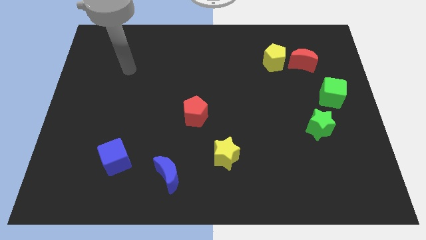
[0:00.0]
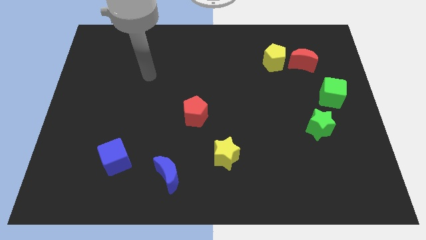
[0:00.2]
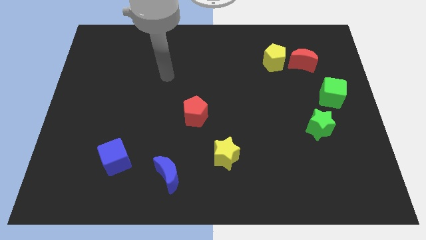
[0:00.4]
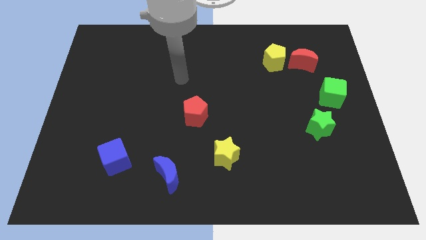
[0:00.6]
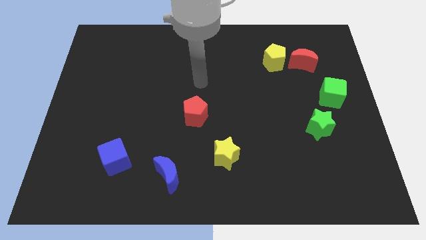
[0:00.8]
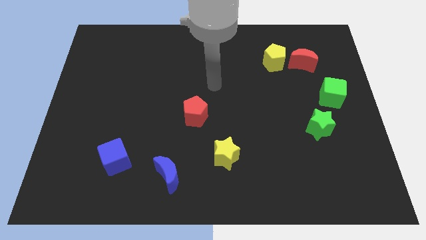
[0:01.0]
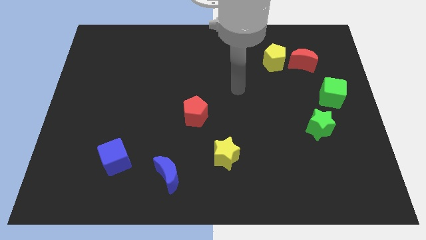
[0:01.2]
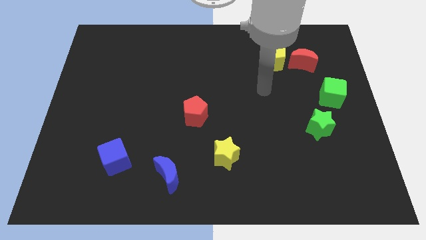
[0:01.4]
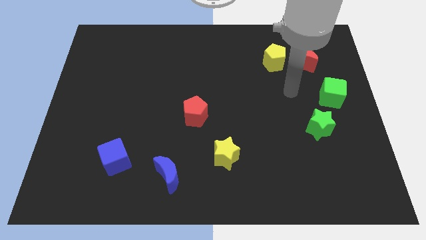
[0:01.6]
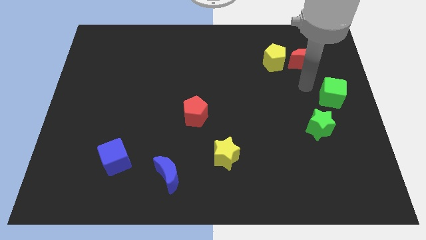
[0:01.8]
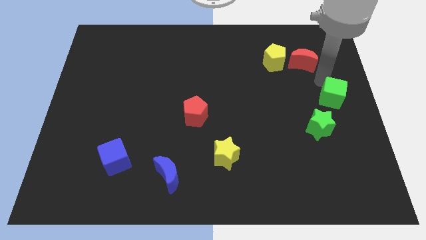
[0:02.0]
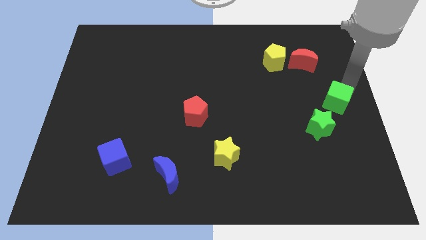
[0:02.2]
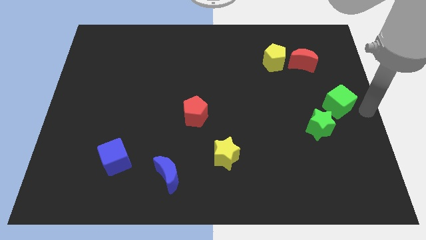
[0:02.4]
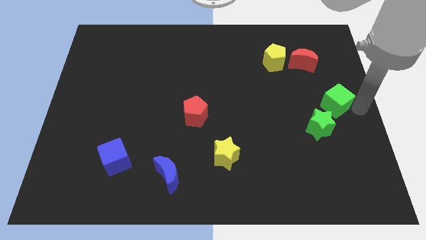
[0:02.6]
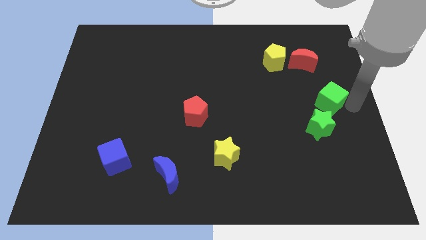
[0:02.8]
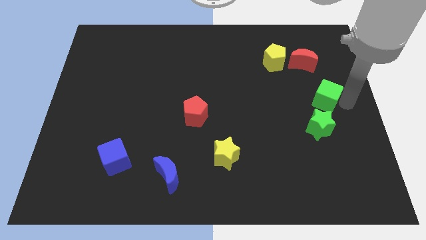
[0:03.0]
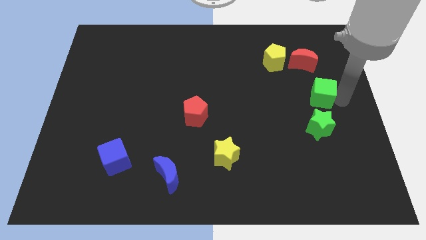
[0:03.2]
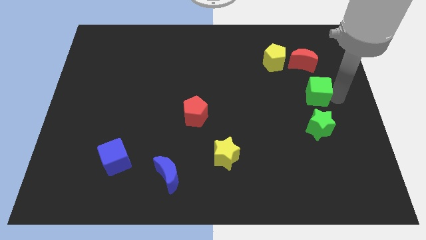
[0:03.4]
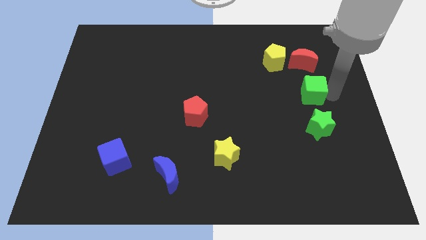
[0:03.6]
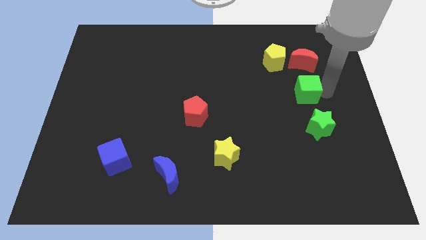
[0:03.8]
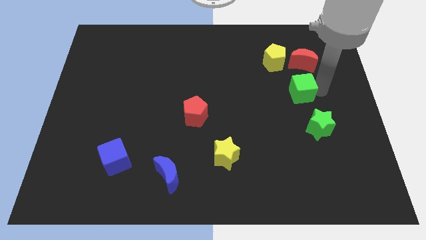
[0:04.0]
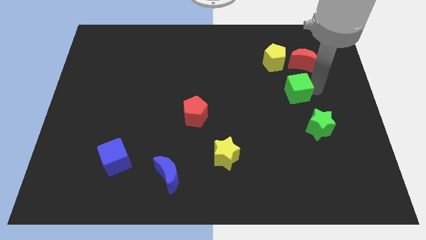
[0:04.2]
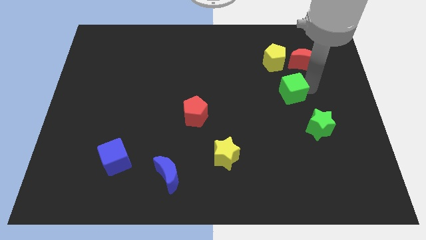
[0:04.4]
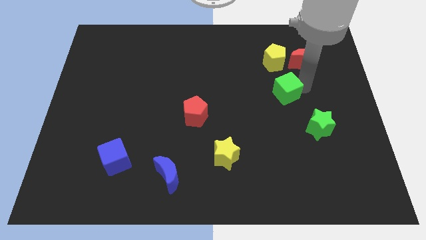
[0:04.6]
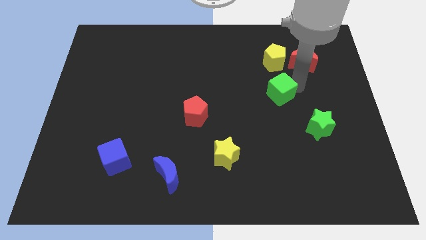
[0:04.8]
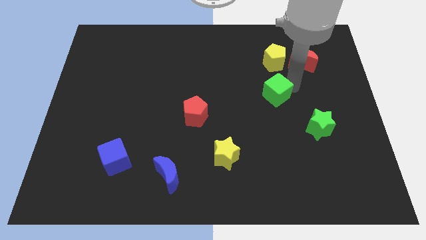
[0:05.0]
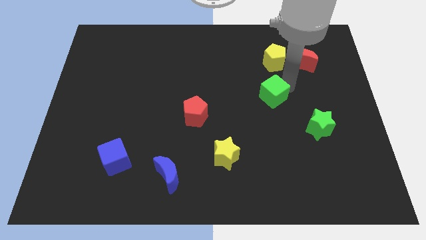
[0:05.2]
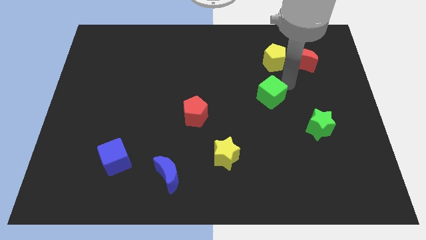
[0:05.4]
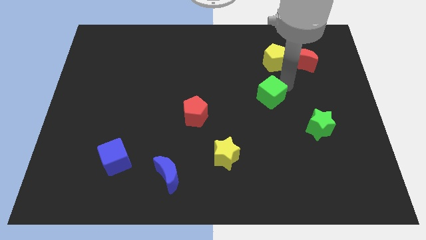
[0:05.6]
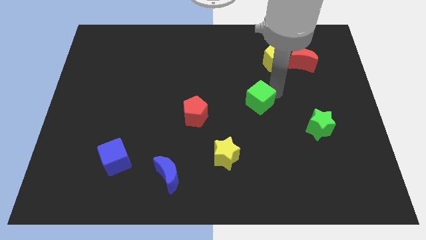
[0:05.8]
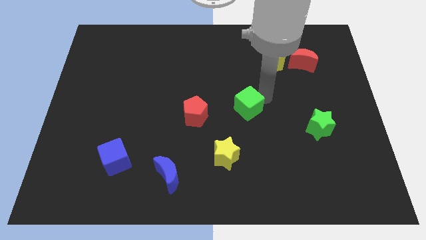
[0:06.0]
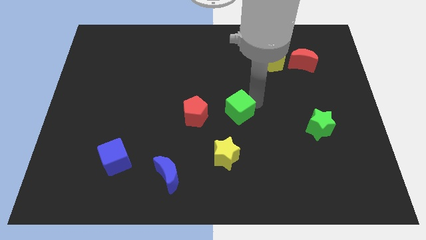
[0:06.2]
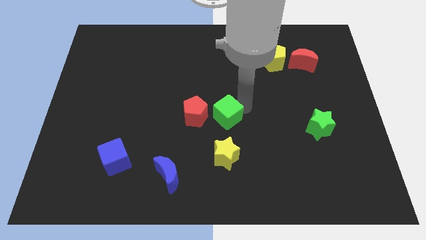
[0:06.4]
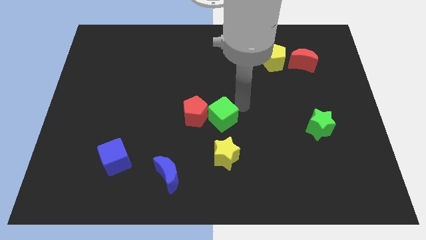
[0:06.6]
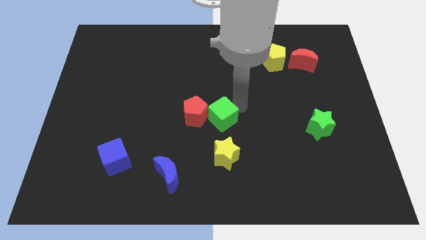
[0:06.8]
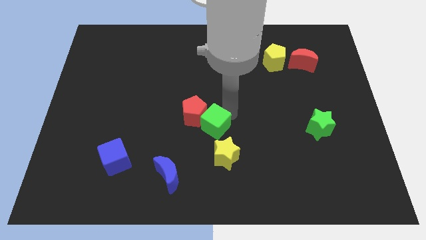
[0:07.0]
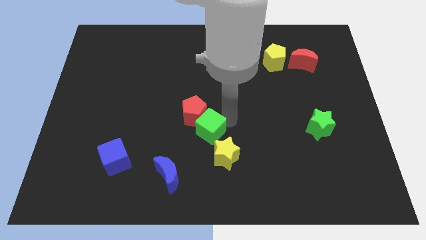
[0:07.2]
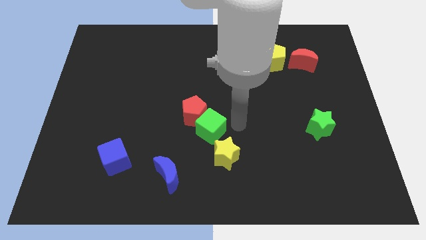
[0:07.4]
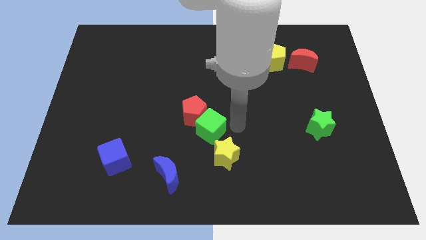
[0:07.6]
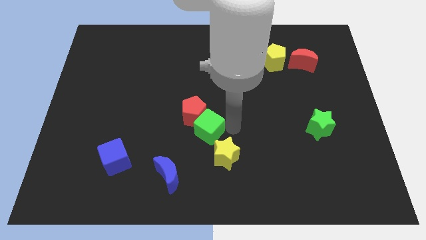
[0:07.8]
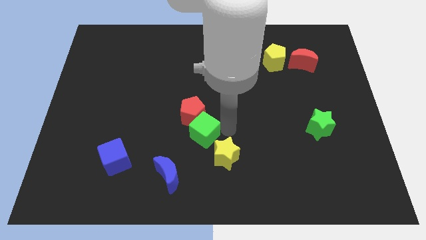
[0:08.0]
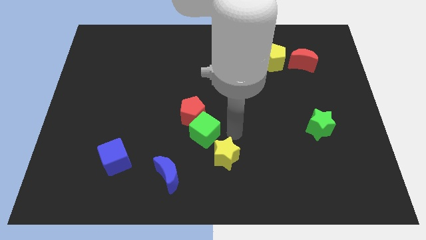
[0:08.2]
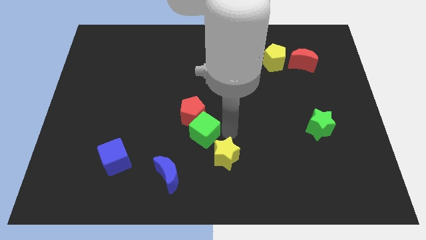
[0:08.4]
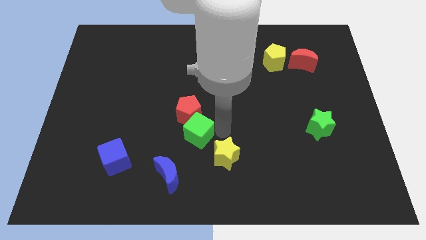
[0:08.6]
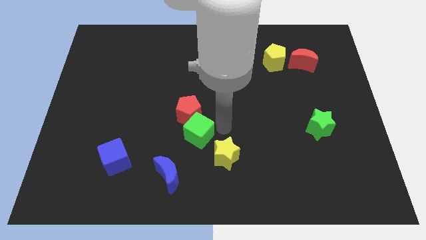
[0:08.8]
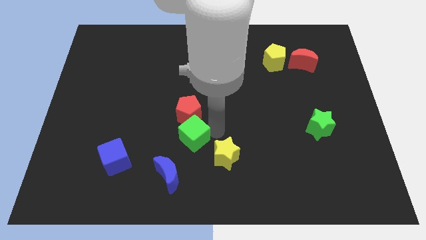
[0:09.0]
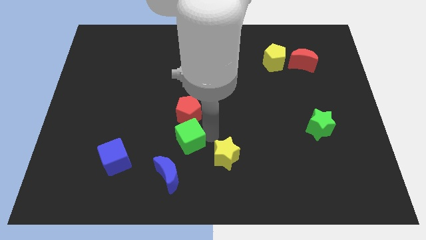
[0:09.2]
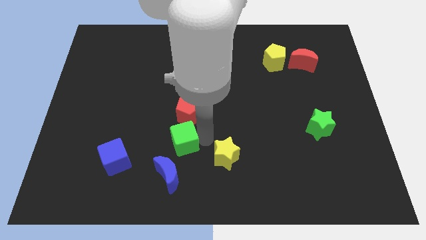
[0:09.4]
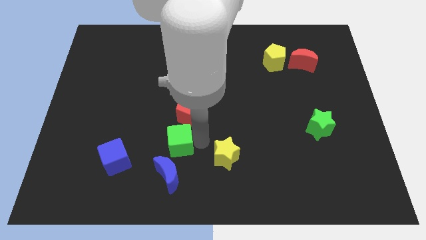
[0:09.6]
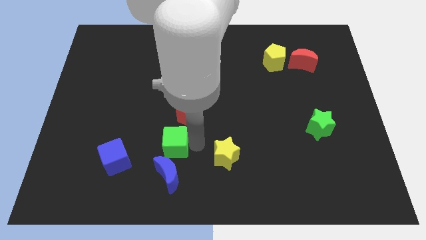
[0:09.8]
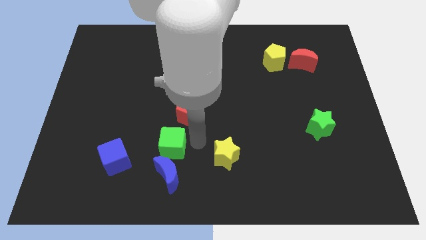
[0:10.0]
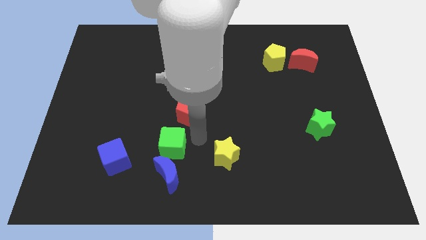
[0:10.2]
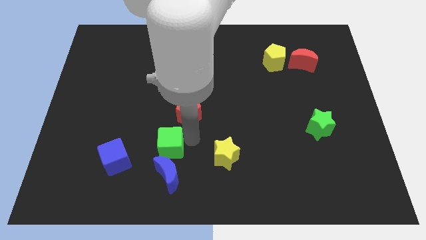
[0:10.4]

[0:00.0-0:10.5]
put the green cube to the top left side of the blue moon

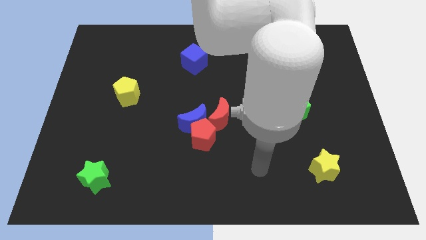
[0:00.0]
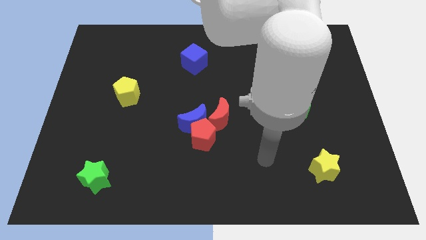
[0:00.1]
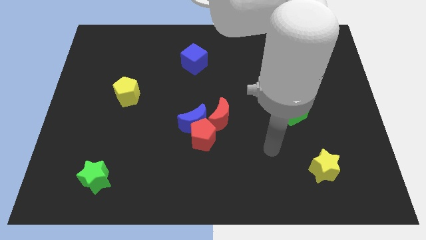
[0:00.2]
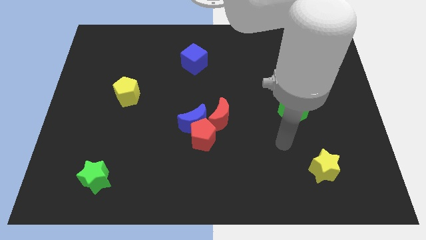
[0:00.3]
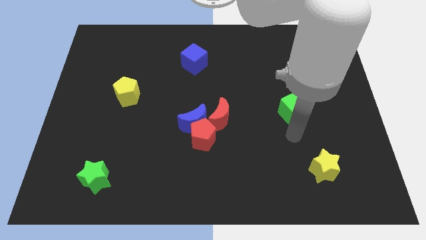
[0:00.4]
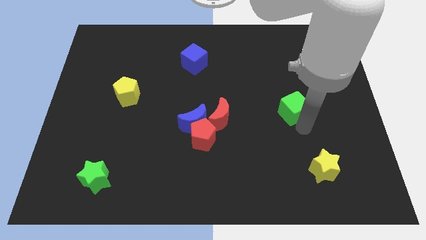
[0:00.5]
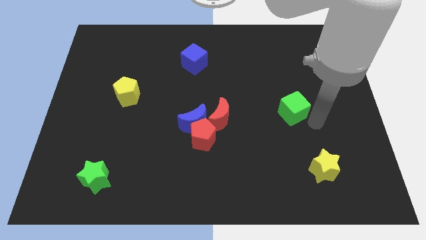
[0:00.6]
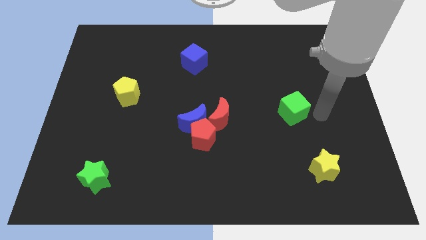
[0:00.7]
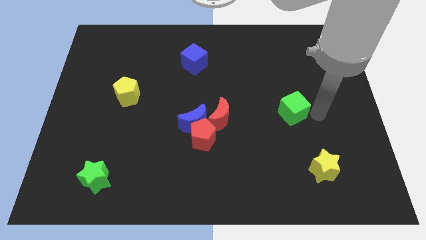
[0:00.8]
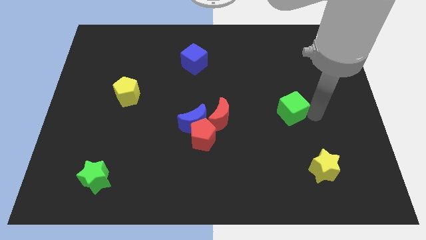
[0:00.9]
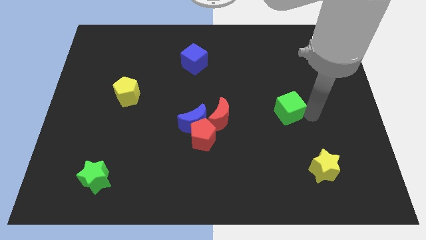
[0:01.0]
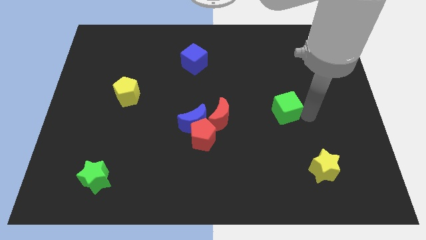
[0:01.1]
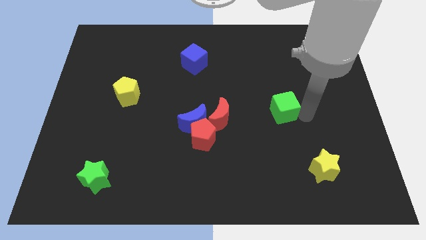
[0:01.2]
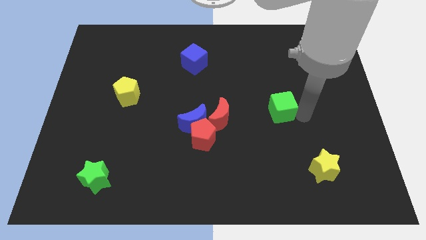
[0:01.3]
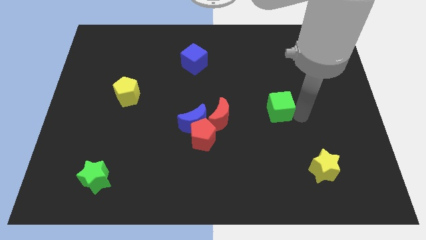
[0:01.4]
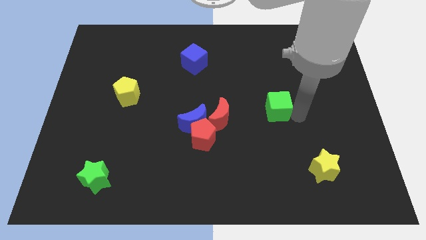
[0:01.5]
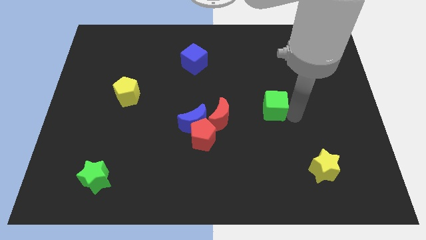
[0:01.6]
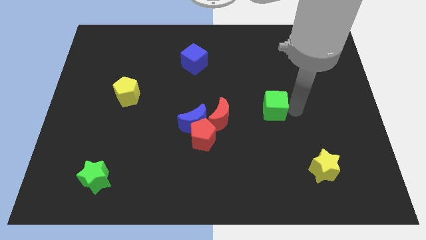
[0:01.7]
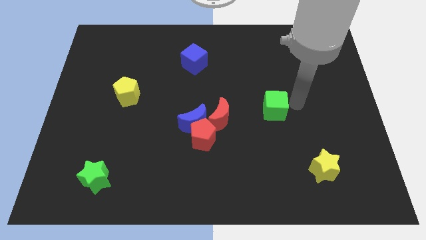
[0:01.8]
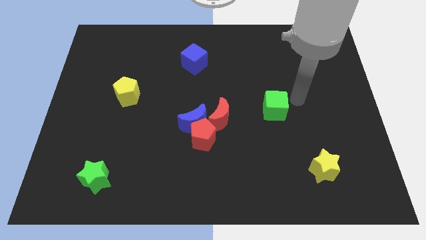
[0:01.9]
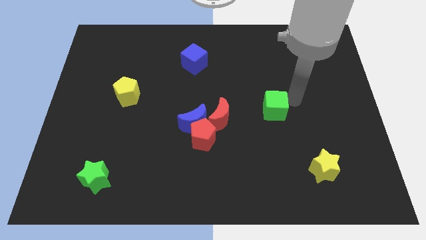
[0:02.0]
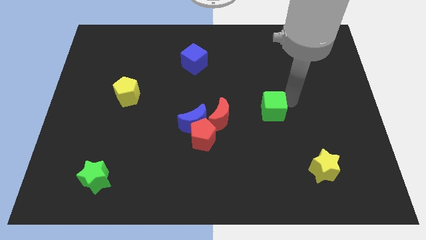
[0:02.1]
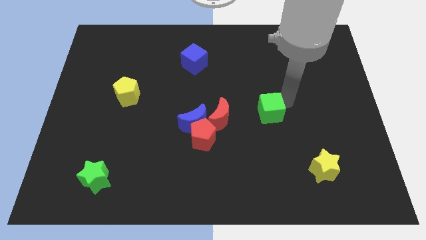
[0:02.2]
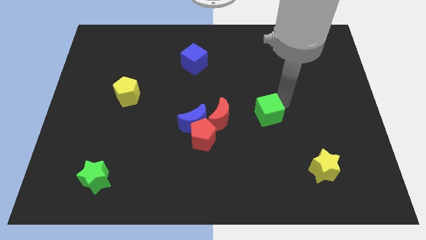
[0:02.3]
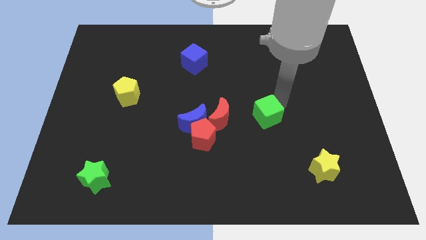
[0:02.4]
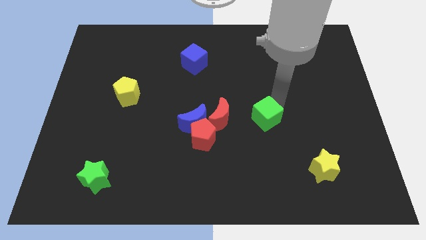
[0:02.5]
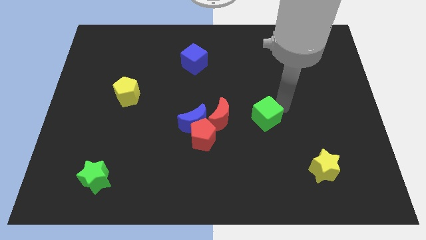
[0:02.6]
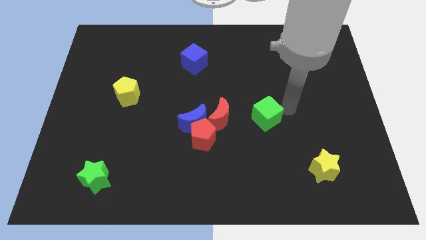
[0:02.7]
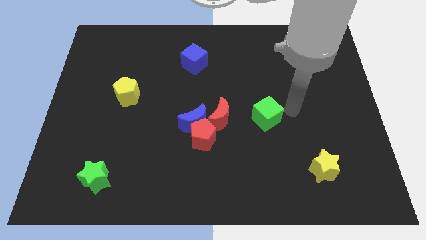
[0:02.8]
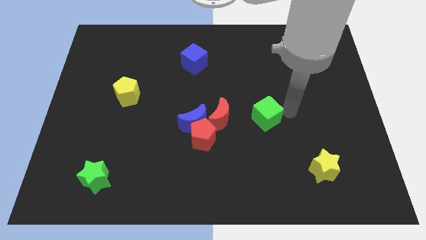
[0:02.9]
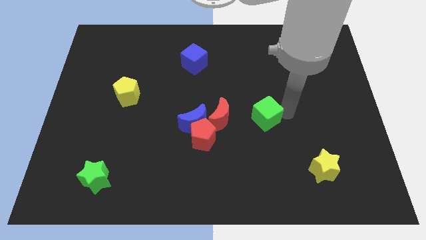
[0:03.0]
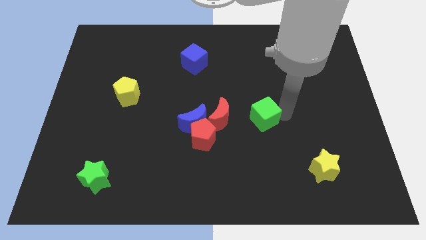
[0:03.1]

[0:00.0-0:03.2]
slide the green cube to the right of the blue moon
